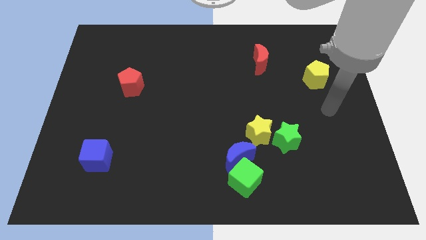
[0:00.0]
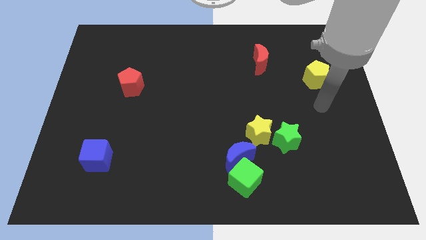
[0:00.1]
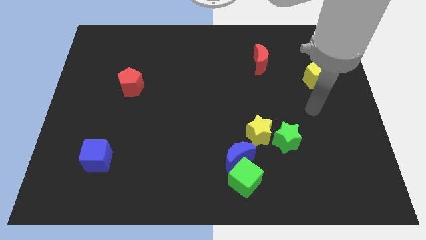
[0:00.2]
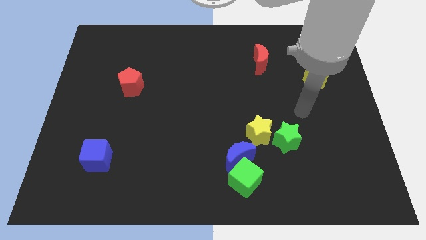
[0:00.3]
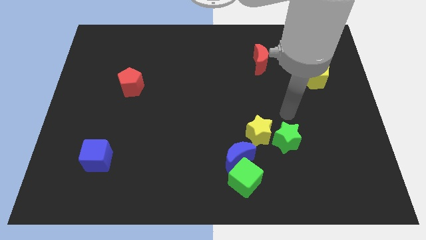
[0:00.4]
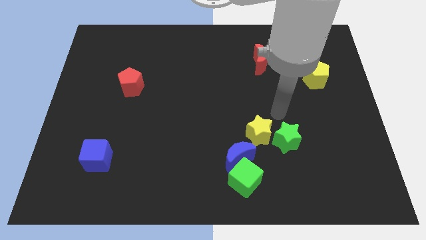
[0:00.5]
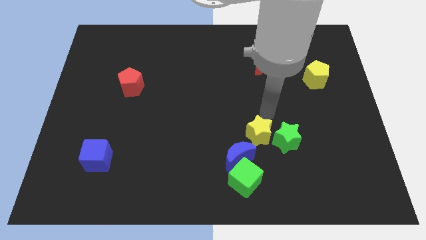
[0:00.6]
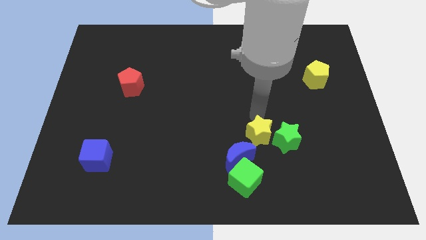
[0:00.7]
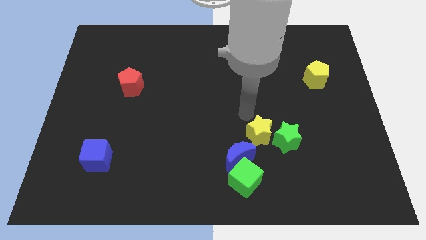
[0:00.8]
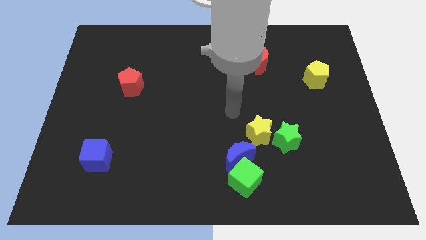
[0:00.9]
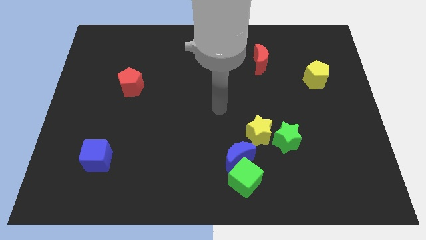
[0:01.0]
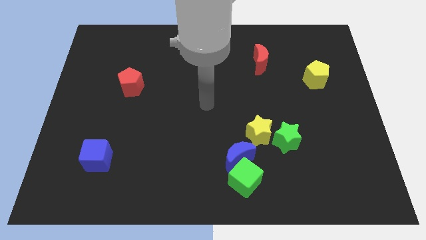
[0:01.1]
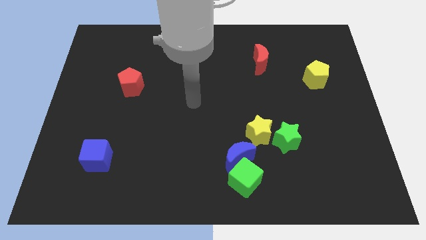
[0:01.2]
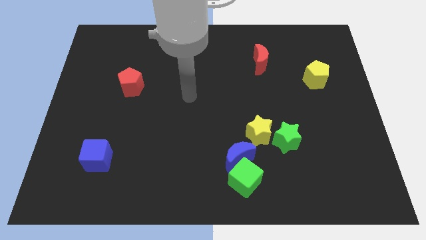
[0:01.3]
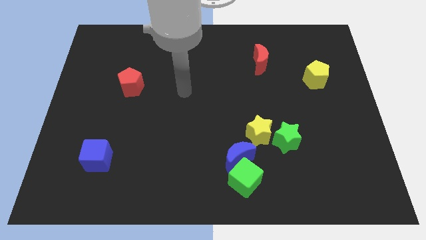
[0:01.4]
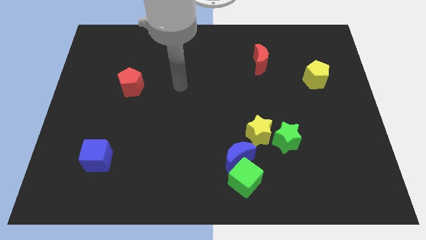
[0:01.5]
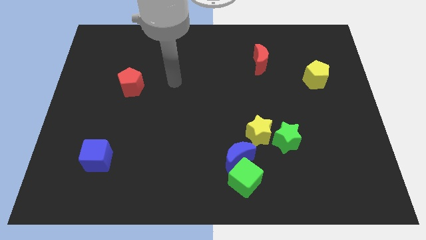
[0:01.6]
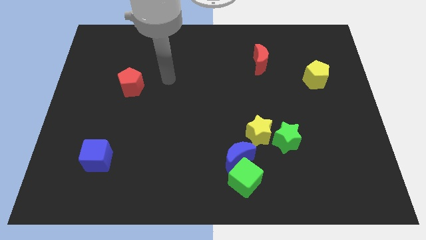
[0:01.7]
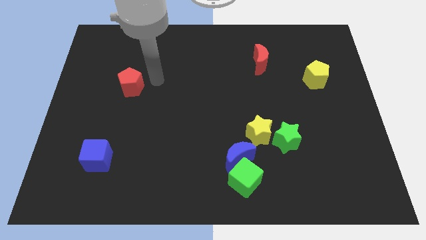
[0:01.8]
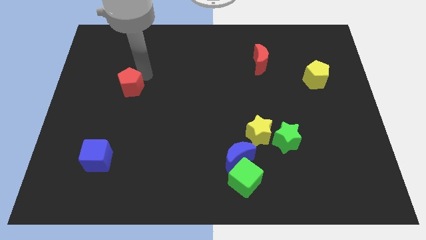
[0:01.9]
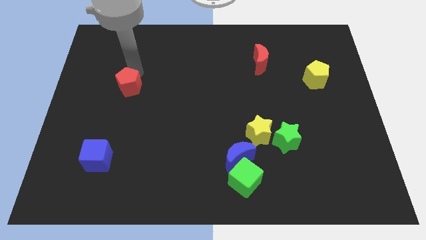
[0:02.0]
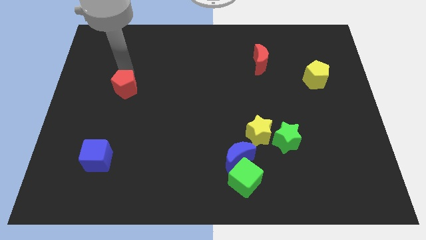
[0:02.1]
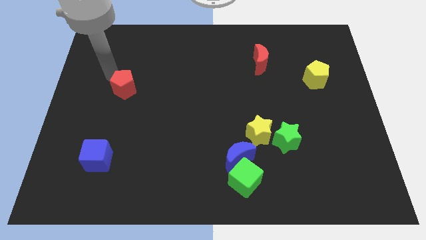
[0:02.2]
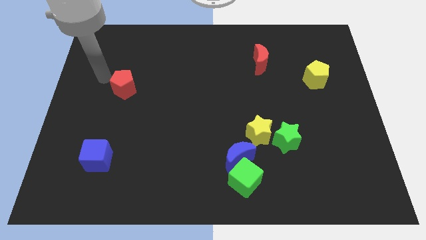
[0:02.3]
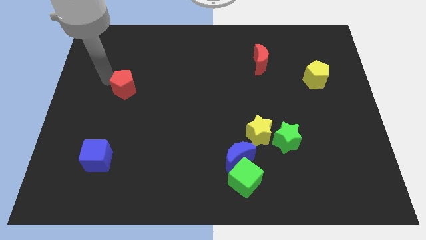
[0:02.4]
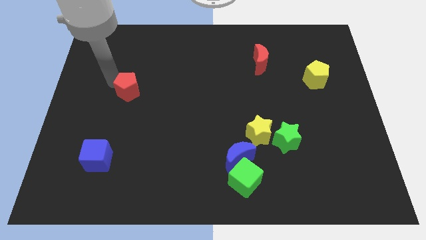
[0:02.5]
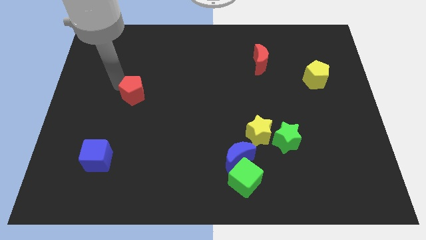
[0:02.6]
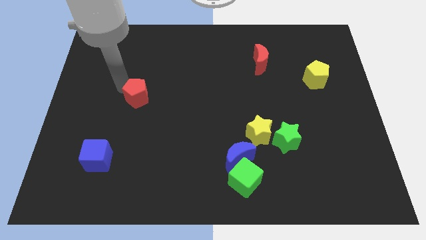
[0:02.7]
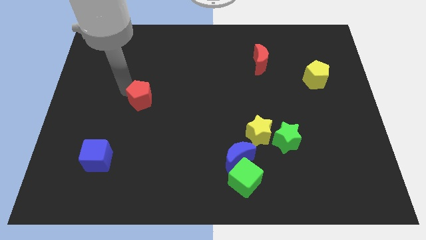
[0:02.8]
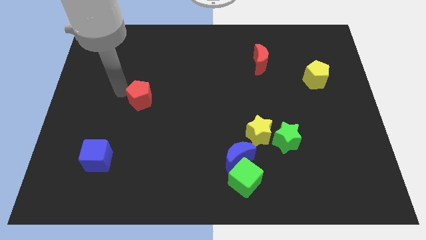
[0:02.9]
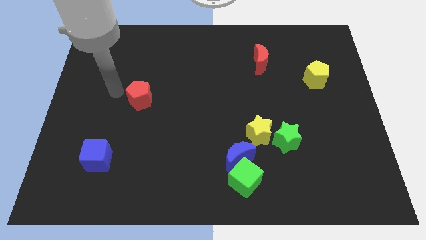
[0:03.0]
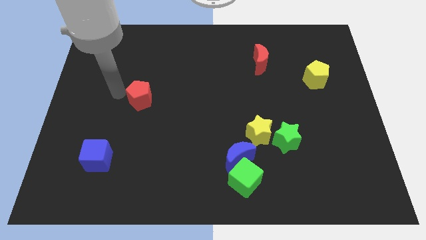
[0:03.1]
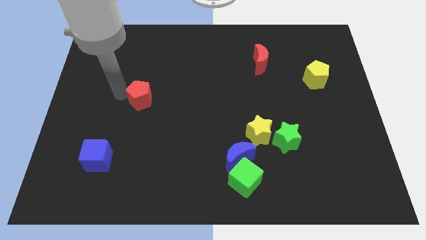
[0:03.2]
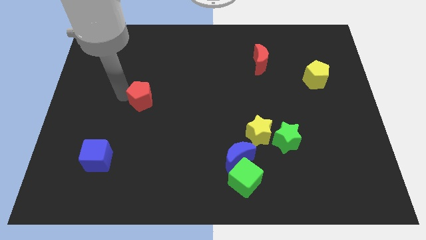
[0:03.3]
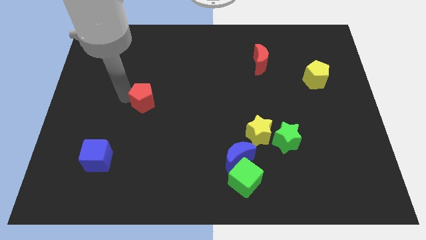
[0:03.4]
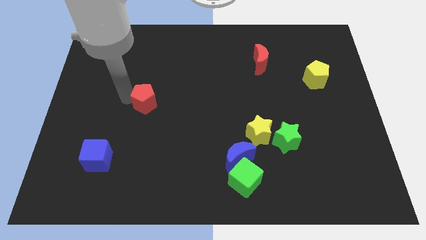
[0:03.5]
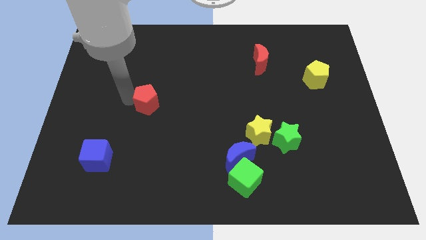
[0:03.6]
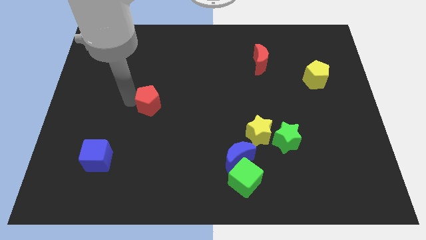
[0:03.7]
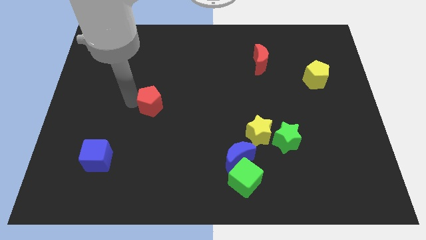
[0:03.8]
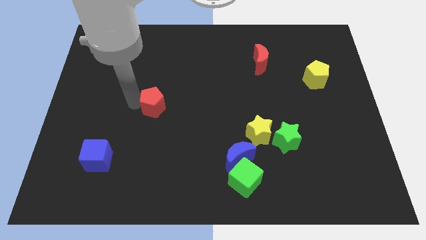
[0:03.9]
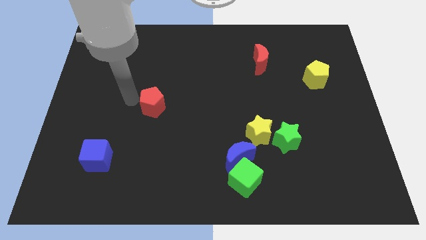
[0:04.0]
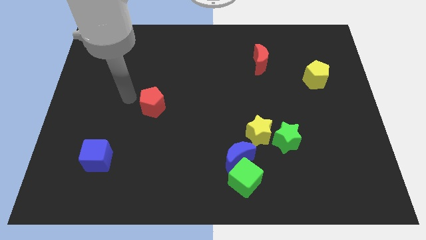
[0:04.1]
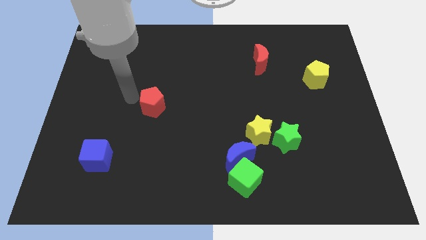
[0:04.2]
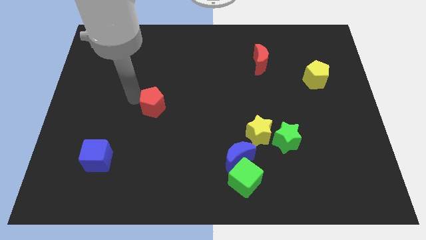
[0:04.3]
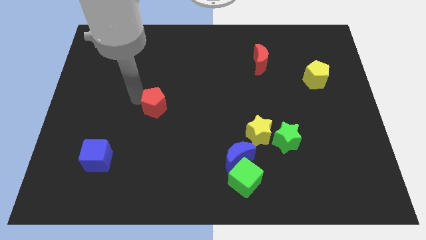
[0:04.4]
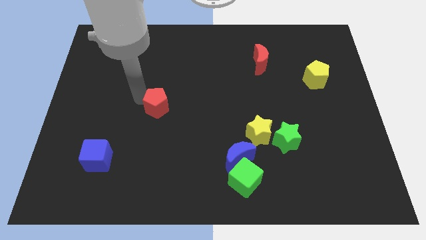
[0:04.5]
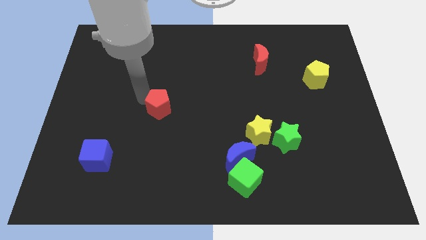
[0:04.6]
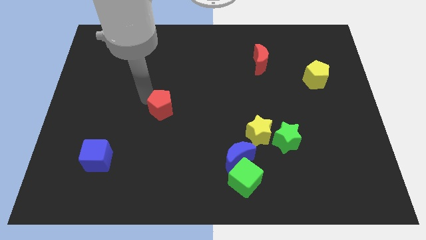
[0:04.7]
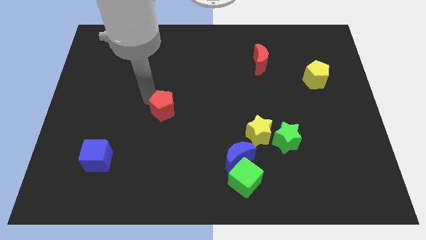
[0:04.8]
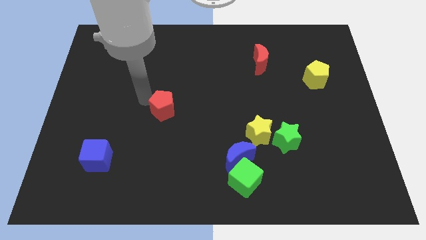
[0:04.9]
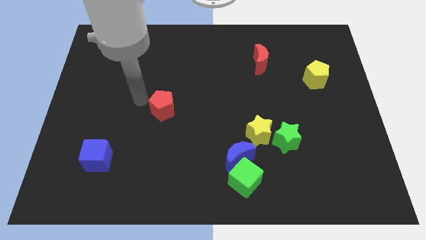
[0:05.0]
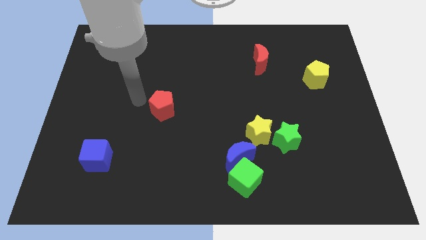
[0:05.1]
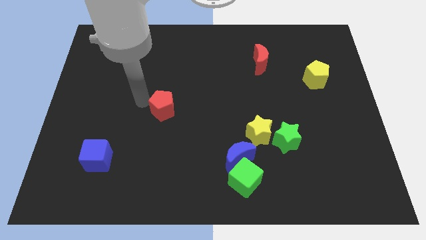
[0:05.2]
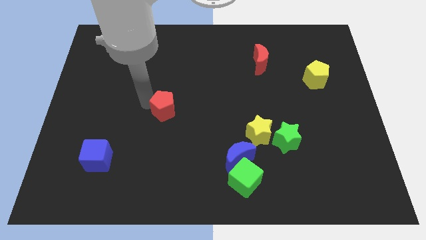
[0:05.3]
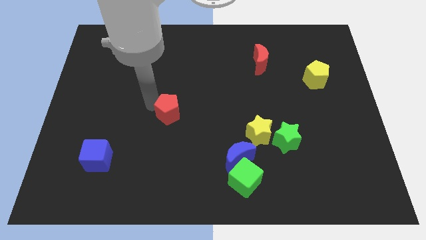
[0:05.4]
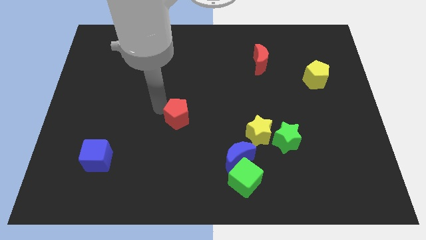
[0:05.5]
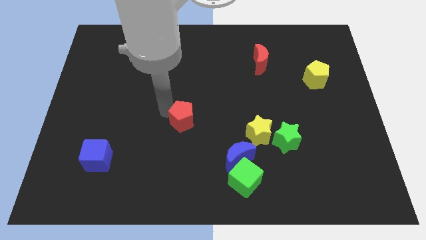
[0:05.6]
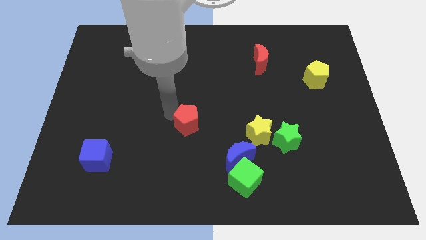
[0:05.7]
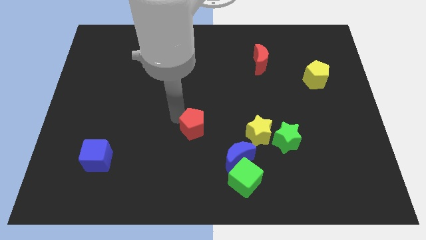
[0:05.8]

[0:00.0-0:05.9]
put the red pentagon to the top left side of the blue moon

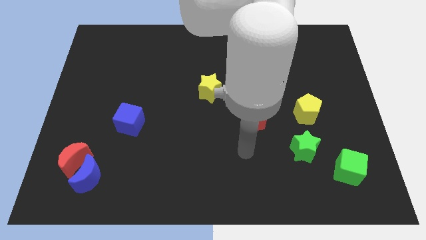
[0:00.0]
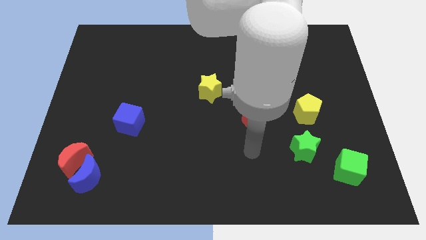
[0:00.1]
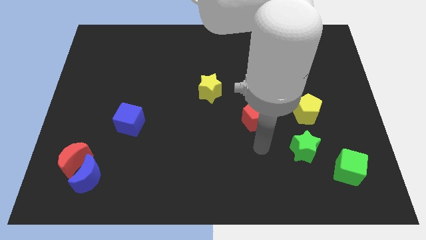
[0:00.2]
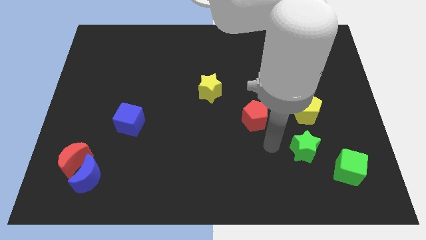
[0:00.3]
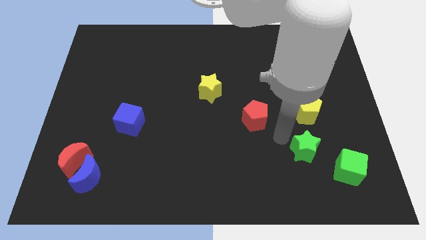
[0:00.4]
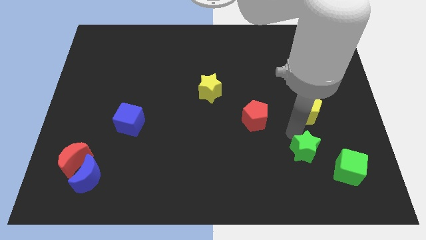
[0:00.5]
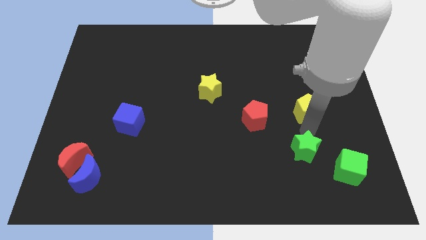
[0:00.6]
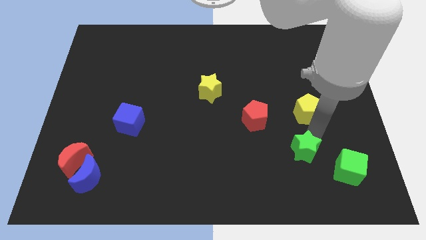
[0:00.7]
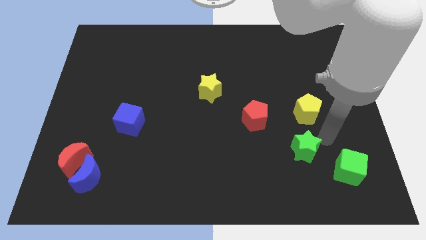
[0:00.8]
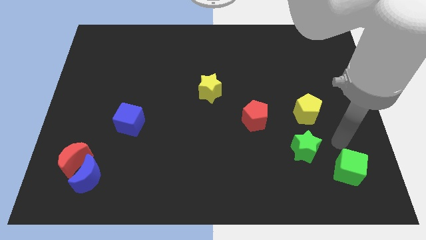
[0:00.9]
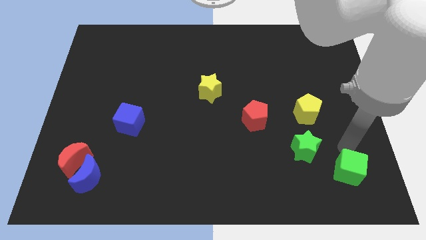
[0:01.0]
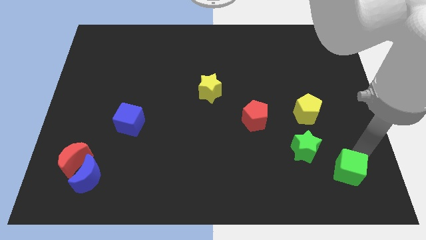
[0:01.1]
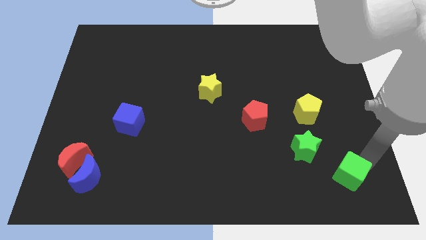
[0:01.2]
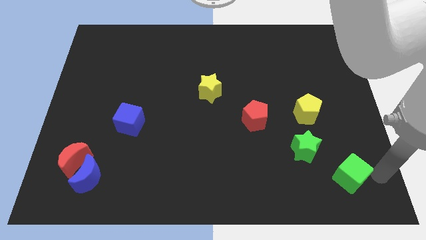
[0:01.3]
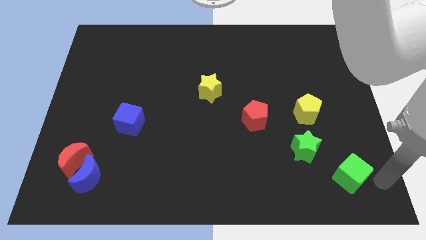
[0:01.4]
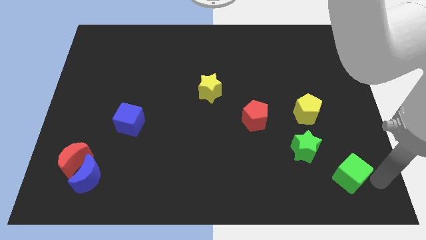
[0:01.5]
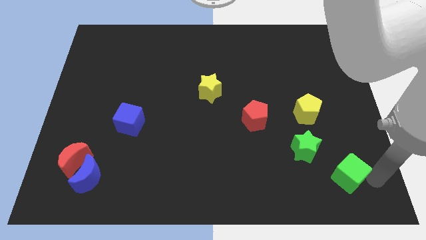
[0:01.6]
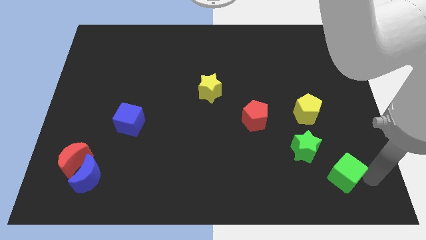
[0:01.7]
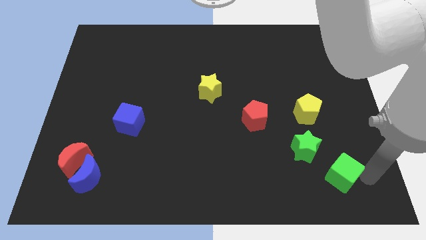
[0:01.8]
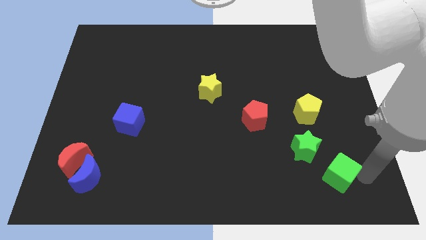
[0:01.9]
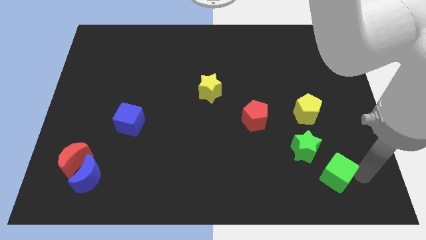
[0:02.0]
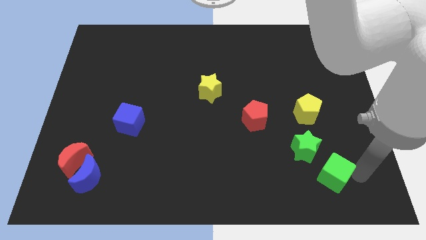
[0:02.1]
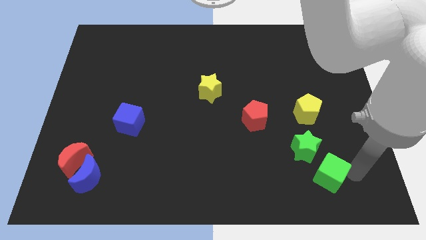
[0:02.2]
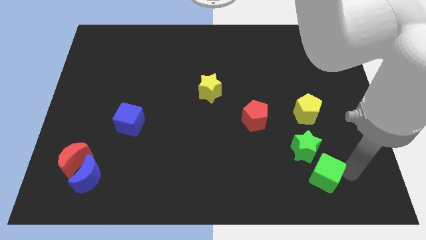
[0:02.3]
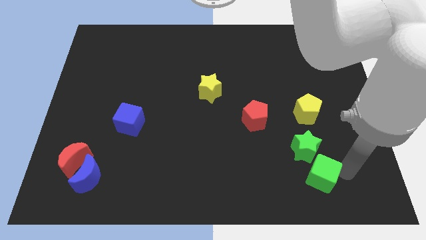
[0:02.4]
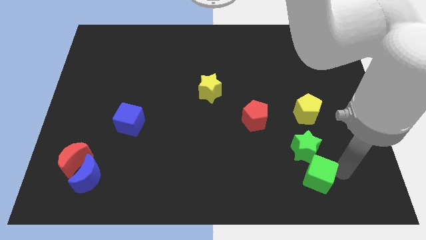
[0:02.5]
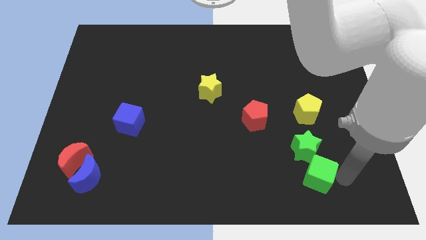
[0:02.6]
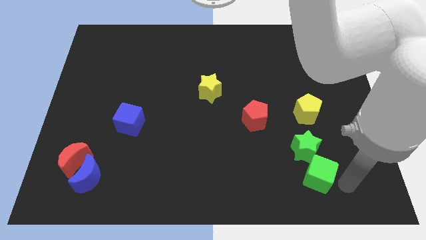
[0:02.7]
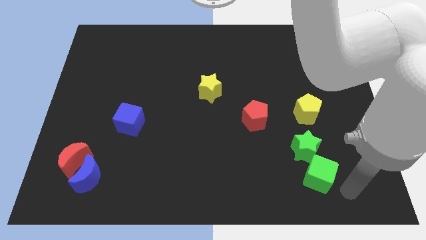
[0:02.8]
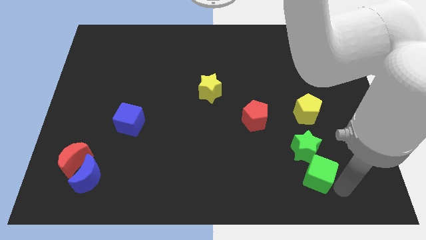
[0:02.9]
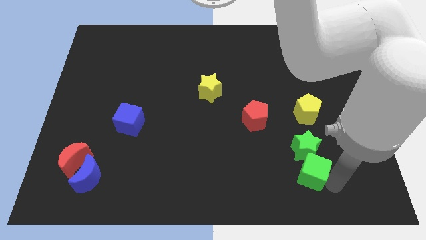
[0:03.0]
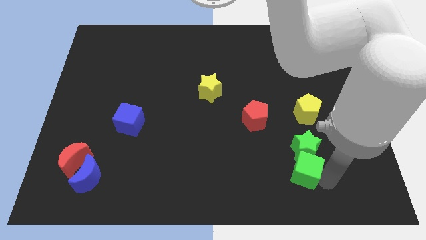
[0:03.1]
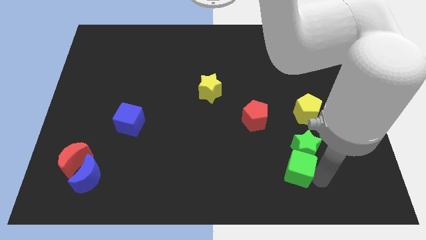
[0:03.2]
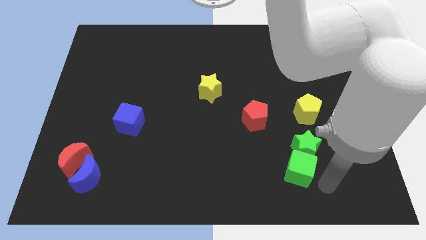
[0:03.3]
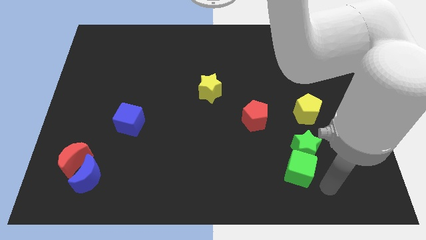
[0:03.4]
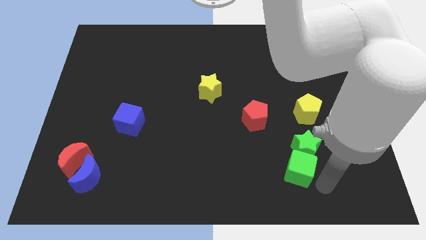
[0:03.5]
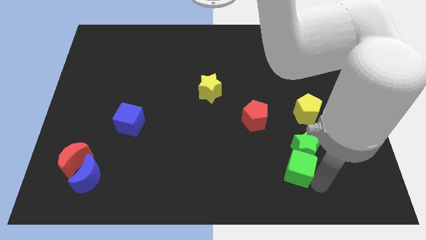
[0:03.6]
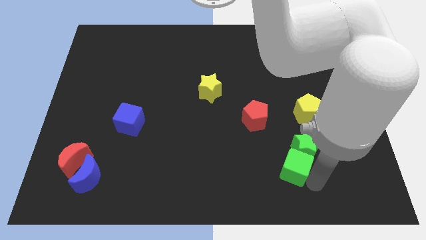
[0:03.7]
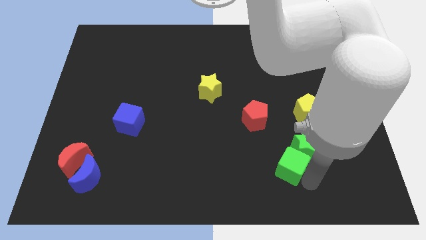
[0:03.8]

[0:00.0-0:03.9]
push the green cube left of the green star
